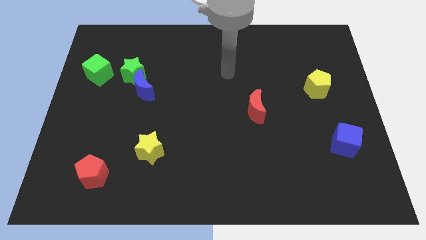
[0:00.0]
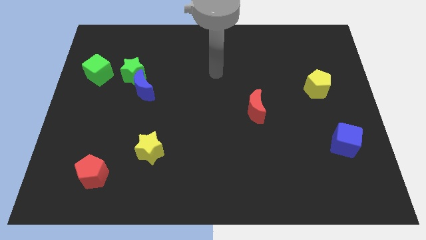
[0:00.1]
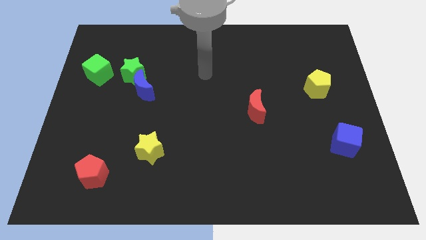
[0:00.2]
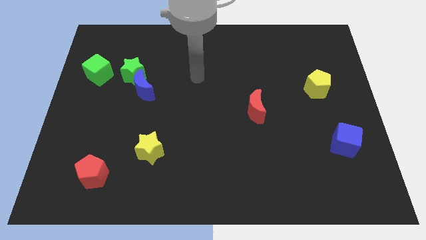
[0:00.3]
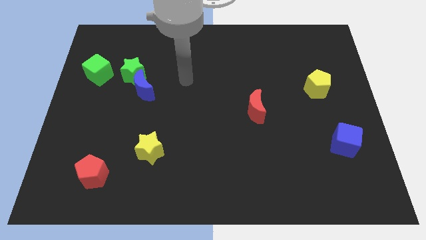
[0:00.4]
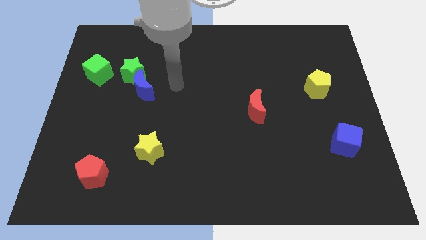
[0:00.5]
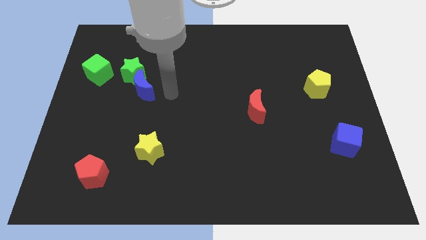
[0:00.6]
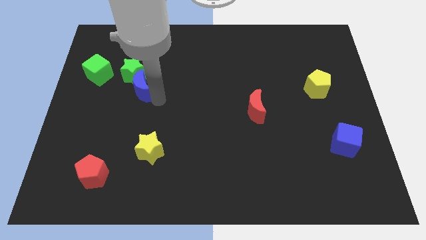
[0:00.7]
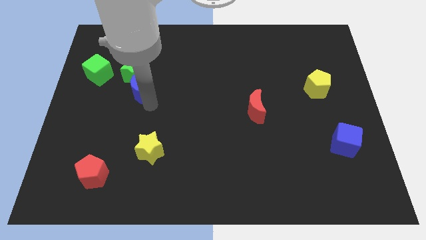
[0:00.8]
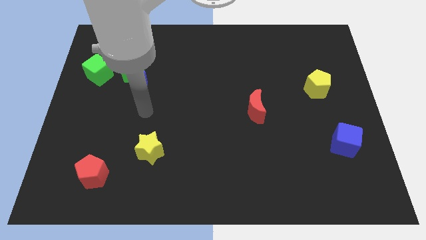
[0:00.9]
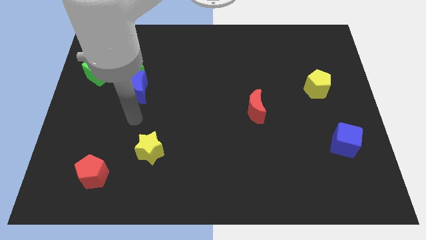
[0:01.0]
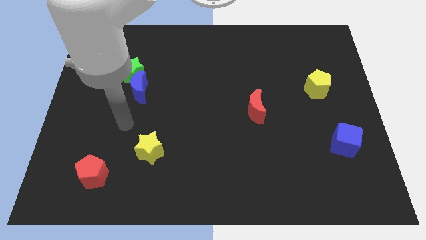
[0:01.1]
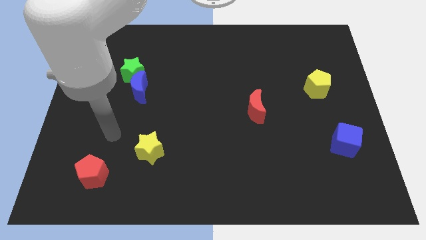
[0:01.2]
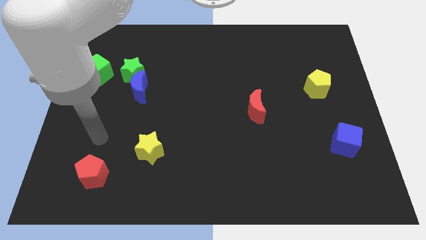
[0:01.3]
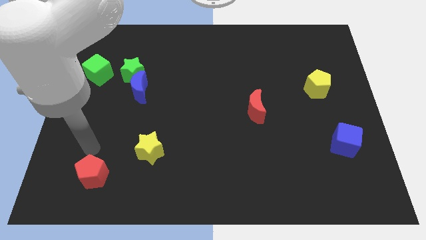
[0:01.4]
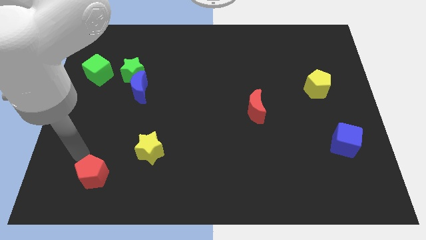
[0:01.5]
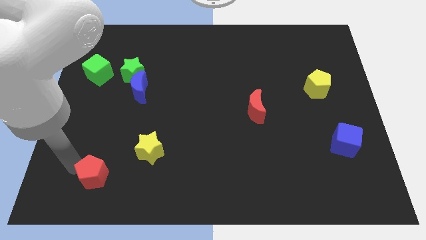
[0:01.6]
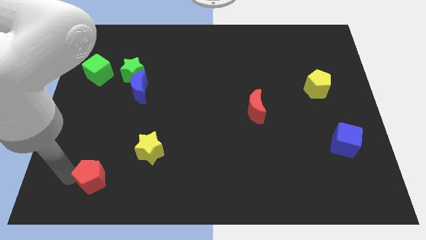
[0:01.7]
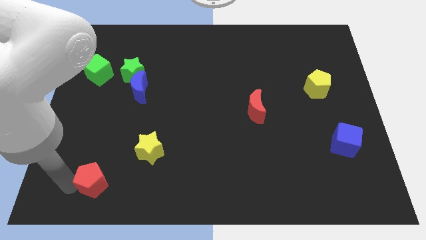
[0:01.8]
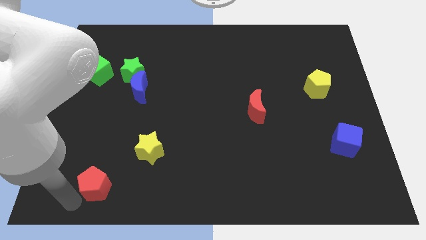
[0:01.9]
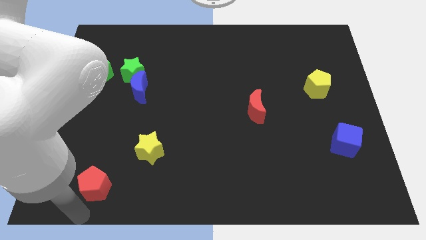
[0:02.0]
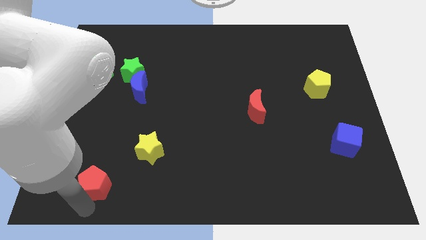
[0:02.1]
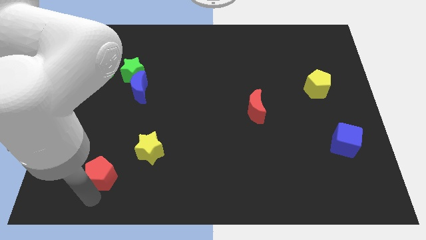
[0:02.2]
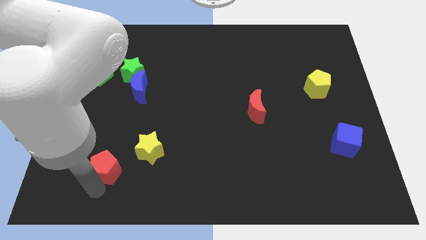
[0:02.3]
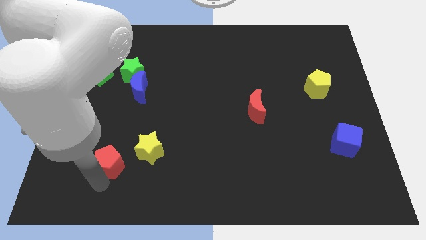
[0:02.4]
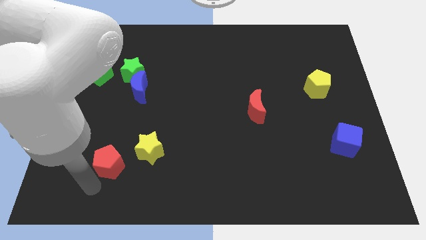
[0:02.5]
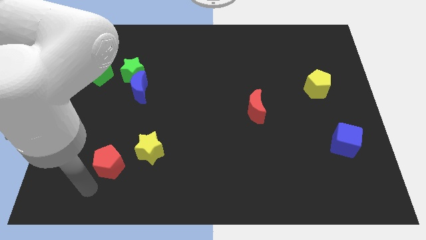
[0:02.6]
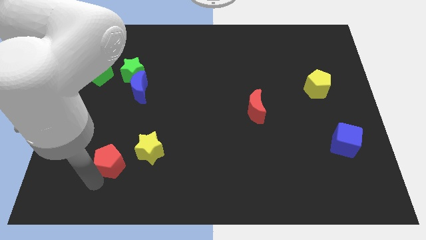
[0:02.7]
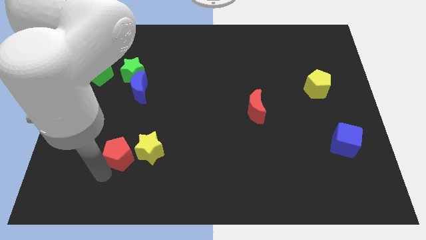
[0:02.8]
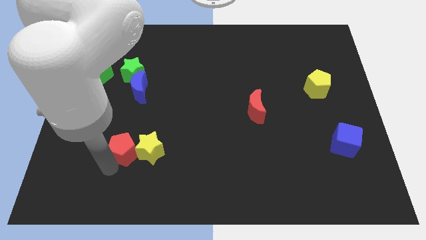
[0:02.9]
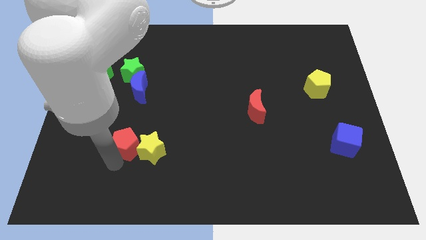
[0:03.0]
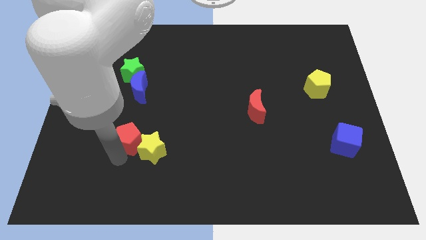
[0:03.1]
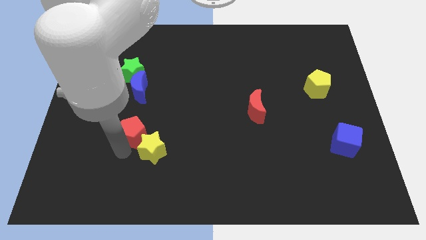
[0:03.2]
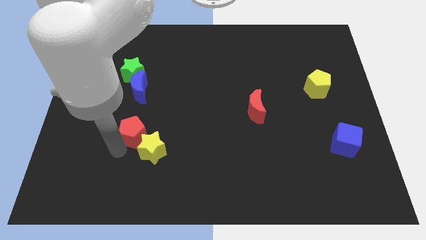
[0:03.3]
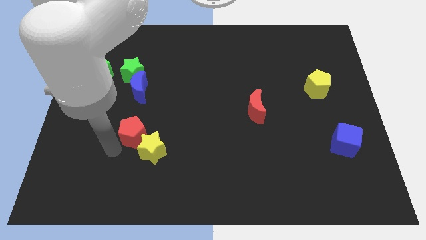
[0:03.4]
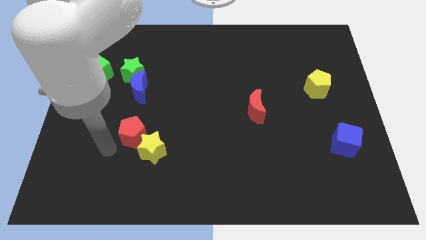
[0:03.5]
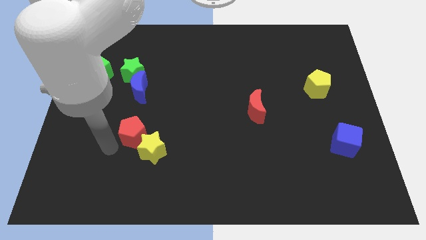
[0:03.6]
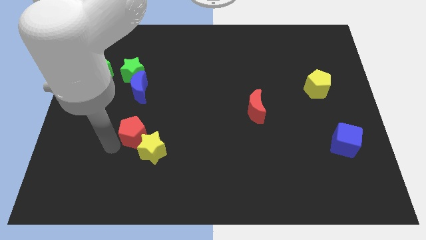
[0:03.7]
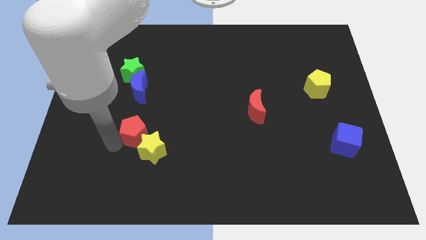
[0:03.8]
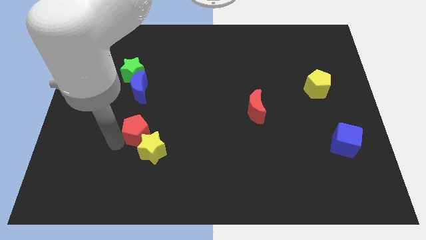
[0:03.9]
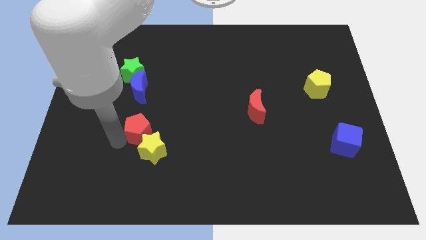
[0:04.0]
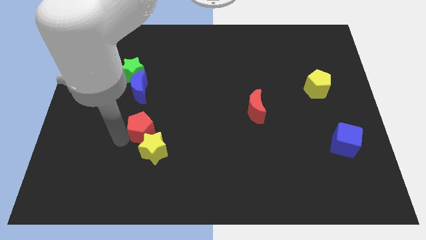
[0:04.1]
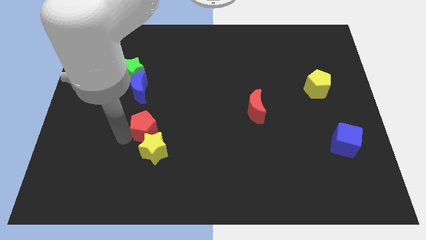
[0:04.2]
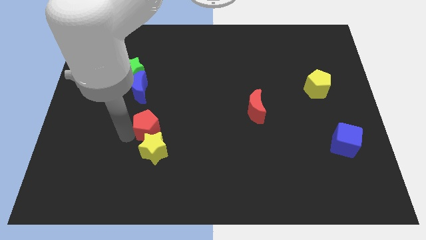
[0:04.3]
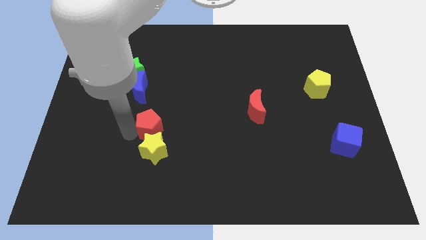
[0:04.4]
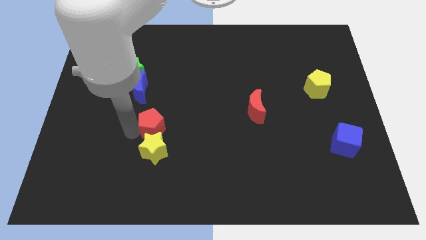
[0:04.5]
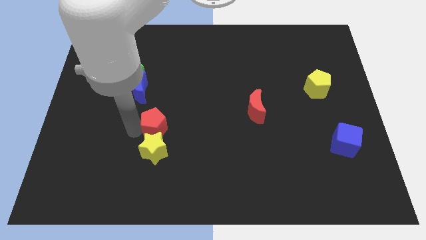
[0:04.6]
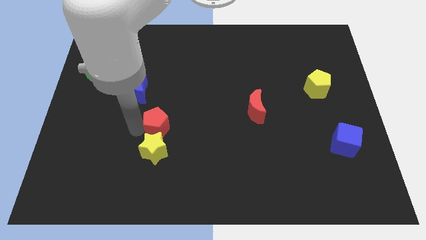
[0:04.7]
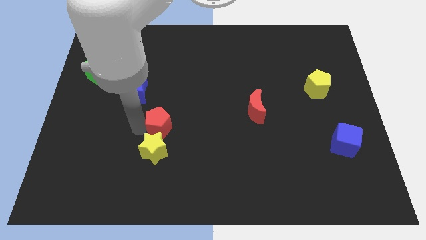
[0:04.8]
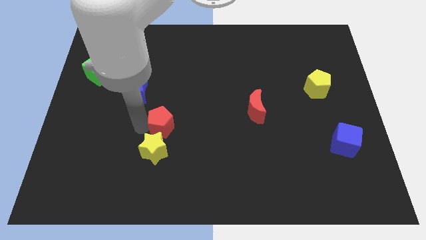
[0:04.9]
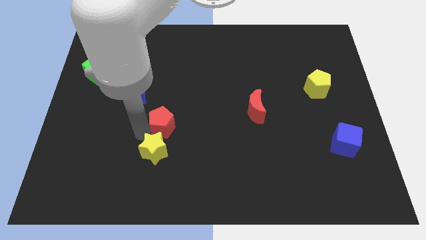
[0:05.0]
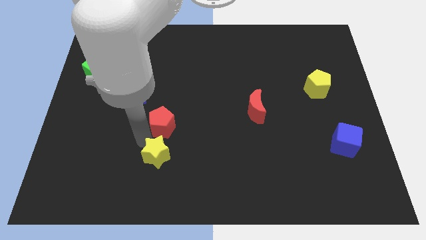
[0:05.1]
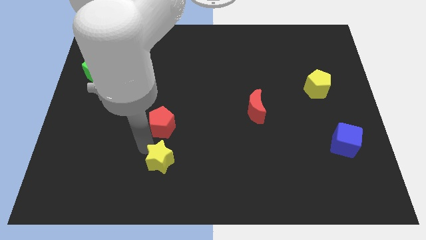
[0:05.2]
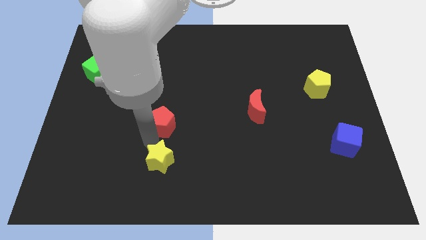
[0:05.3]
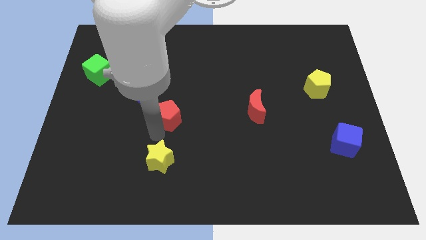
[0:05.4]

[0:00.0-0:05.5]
move the red pentagon up and to the right diagonally

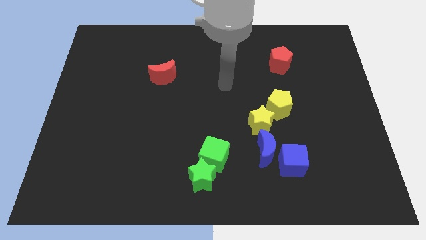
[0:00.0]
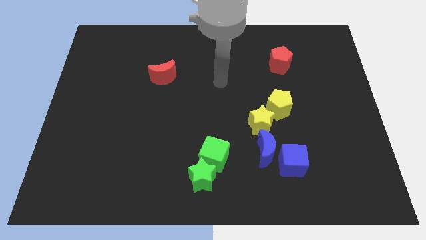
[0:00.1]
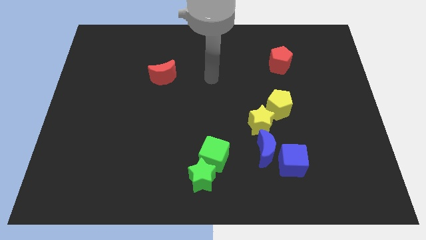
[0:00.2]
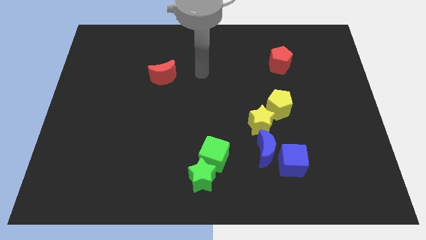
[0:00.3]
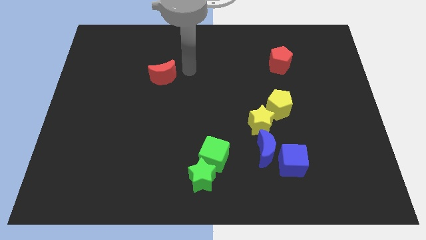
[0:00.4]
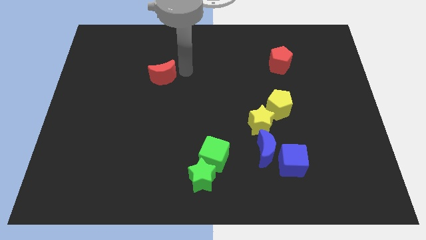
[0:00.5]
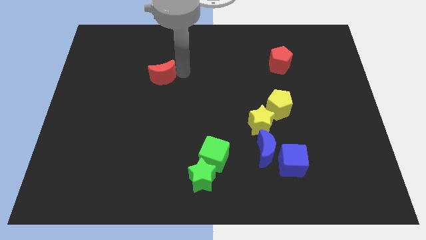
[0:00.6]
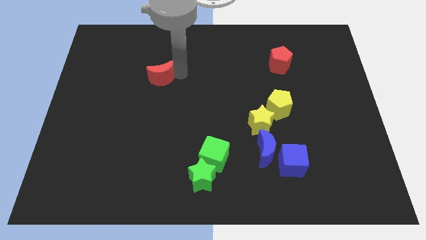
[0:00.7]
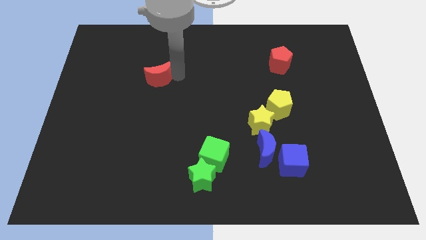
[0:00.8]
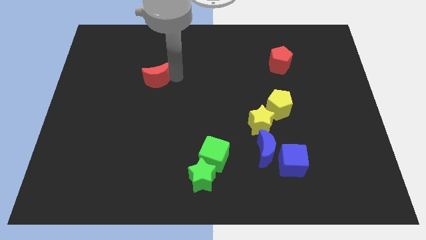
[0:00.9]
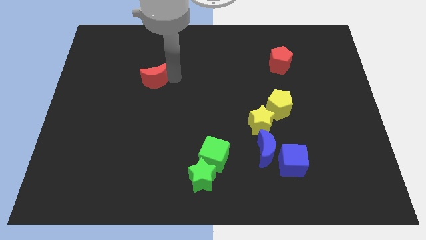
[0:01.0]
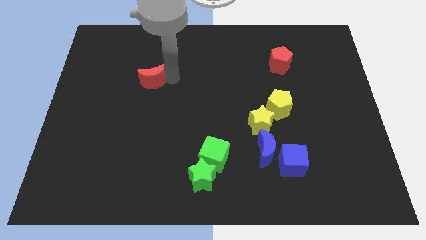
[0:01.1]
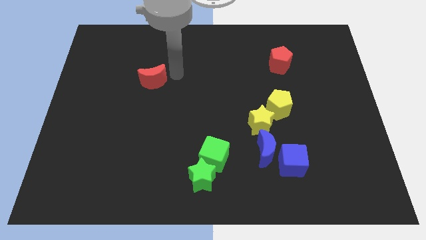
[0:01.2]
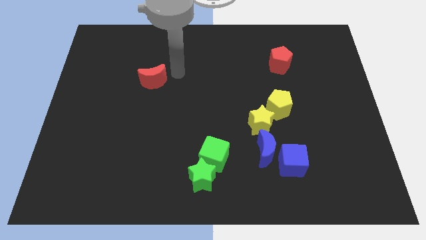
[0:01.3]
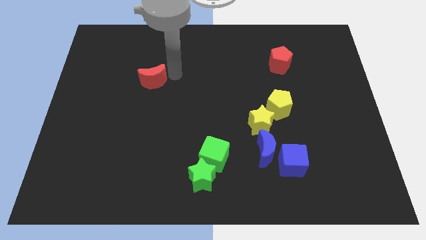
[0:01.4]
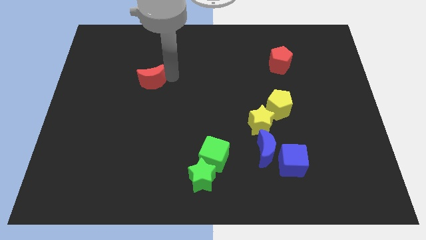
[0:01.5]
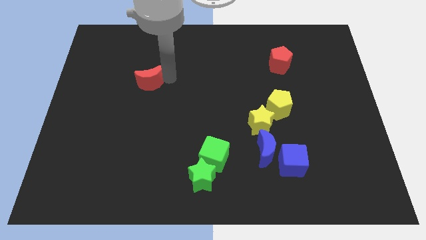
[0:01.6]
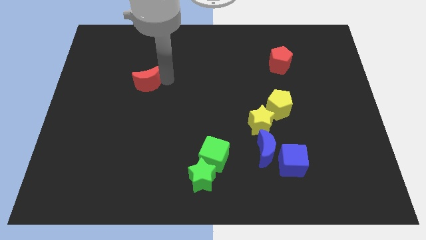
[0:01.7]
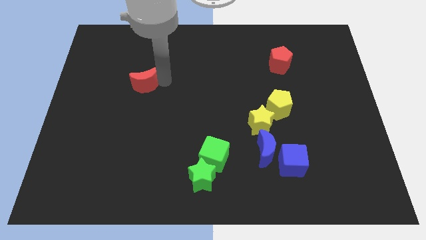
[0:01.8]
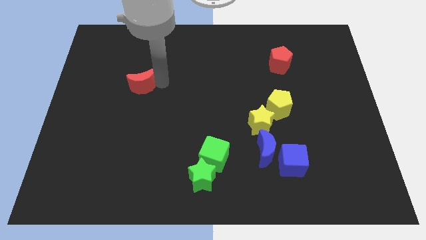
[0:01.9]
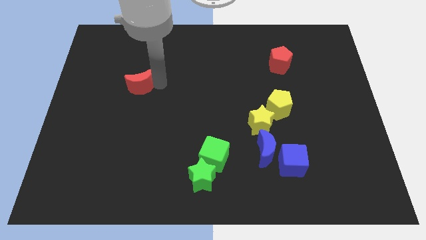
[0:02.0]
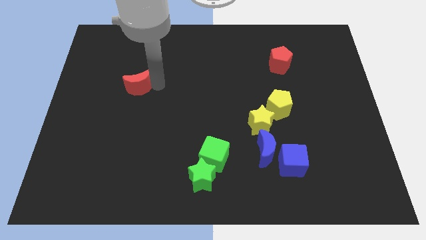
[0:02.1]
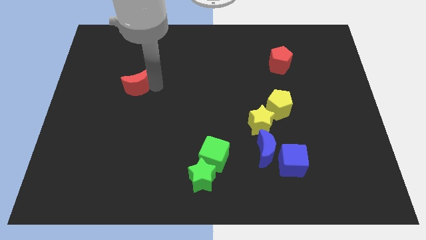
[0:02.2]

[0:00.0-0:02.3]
slightly slide the red moon downwards and left
